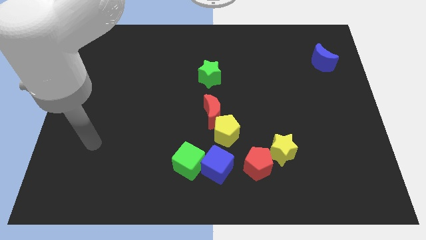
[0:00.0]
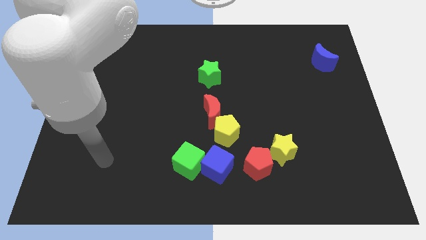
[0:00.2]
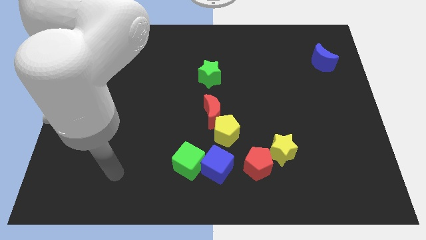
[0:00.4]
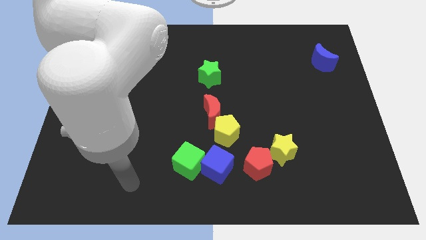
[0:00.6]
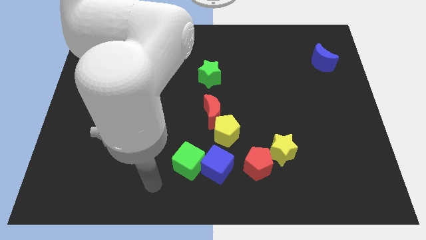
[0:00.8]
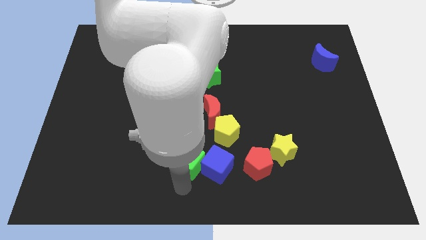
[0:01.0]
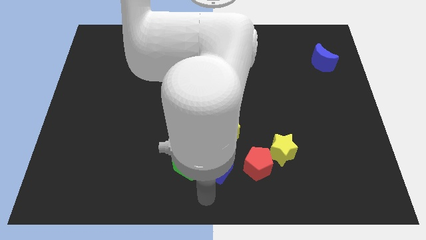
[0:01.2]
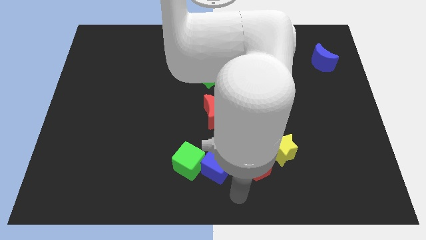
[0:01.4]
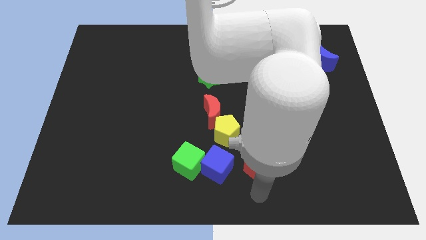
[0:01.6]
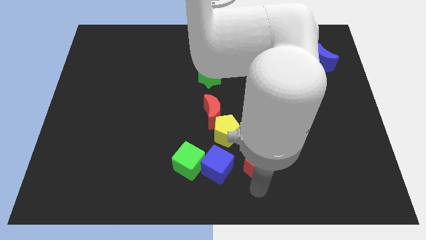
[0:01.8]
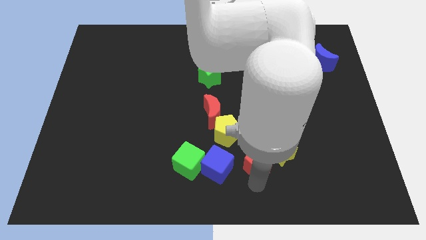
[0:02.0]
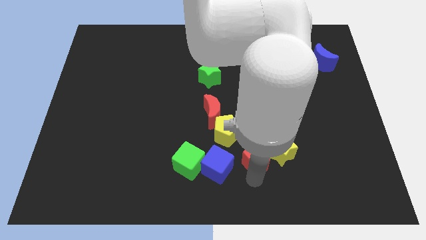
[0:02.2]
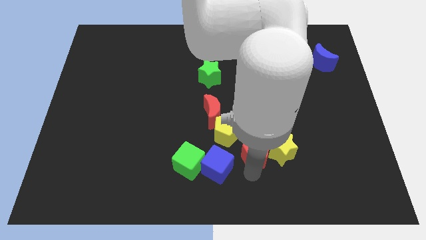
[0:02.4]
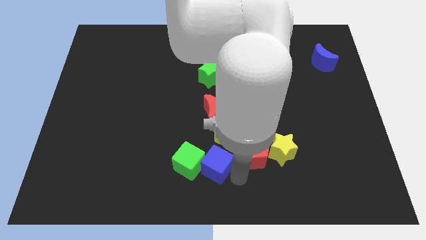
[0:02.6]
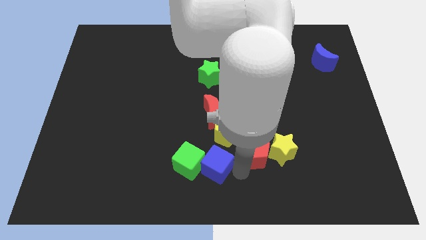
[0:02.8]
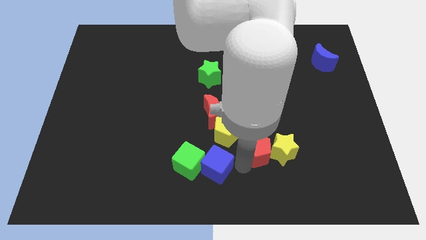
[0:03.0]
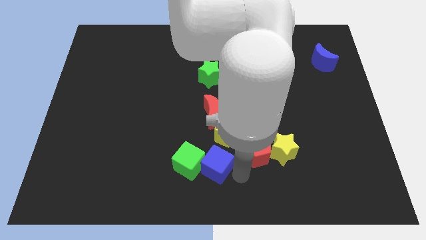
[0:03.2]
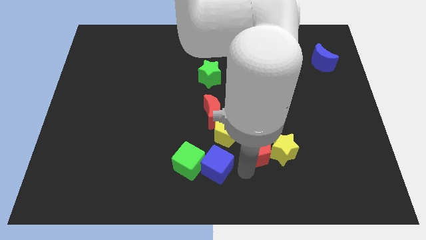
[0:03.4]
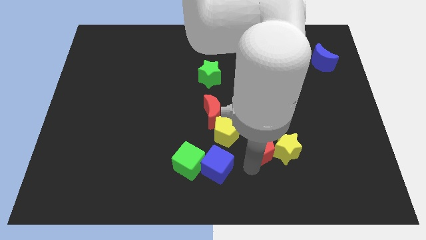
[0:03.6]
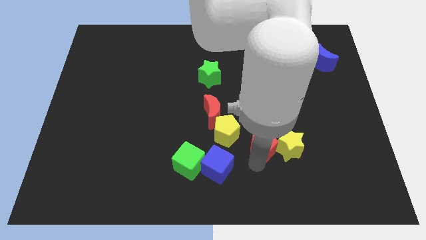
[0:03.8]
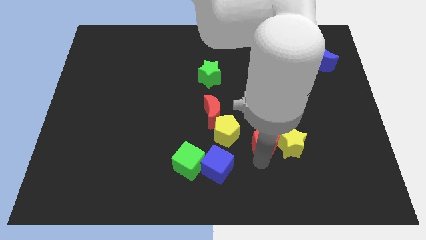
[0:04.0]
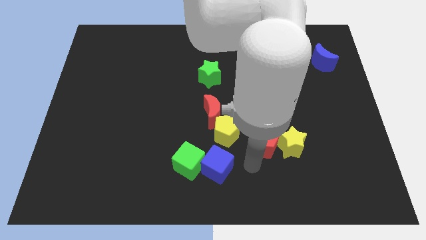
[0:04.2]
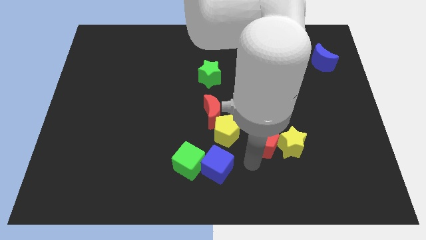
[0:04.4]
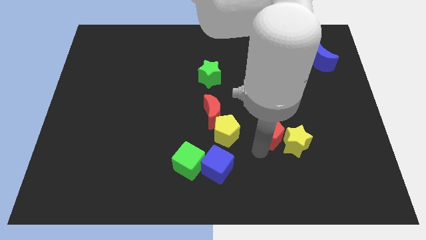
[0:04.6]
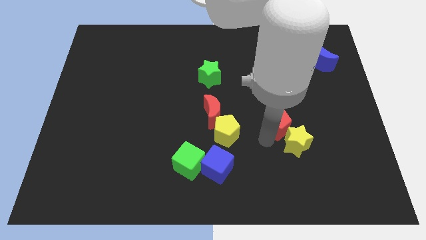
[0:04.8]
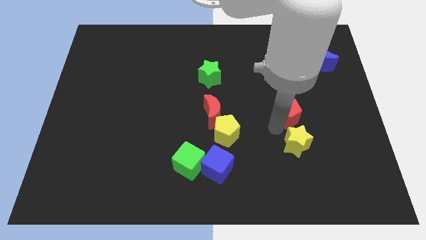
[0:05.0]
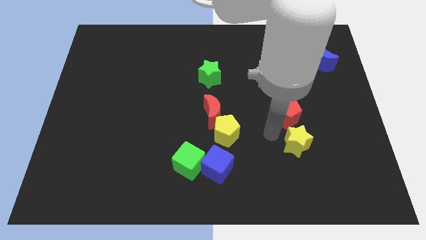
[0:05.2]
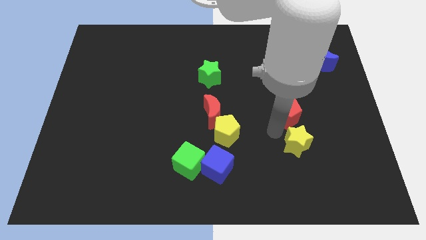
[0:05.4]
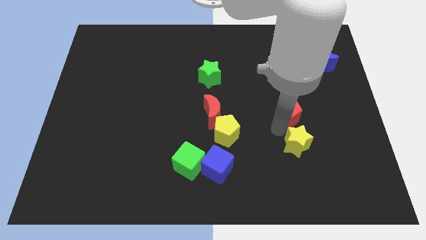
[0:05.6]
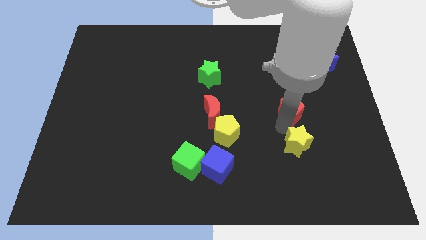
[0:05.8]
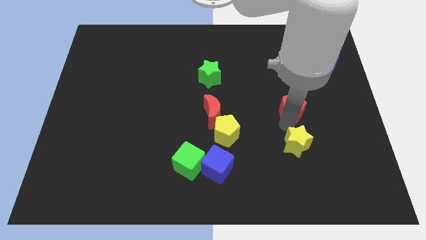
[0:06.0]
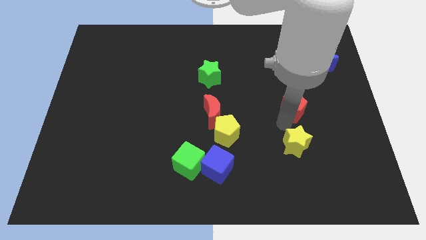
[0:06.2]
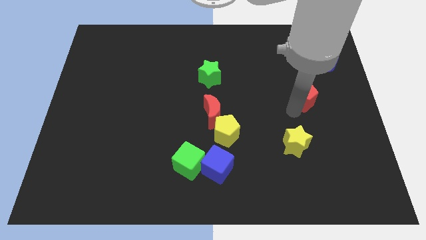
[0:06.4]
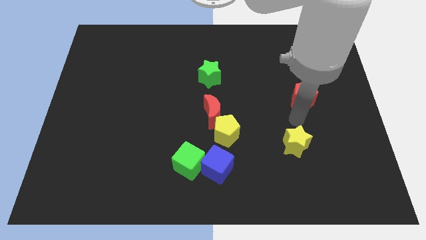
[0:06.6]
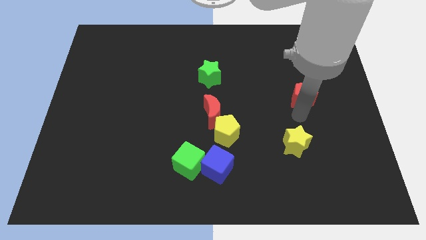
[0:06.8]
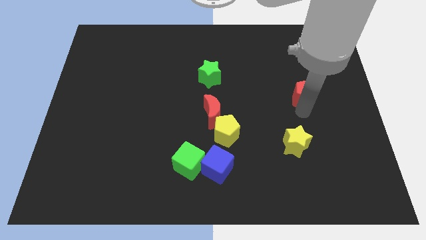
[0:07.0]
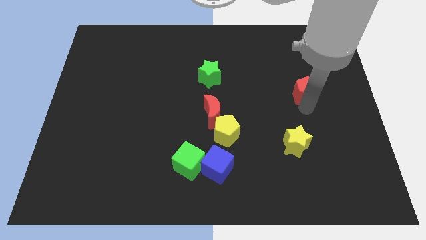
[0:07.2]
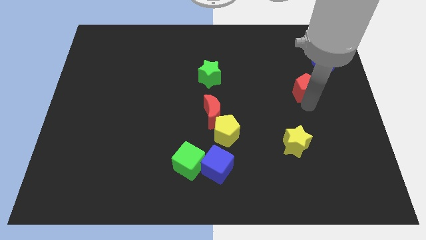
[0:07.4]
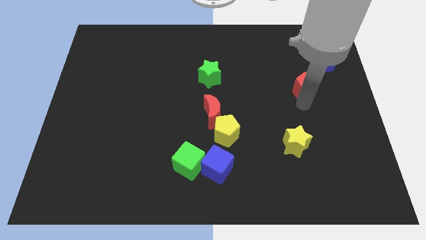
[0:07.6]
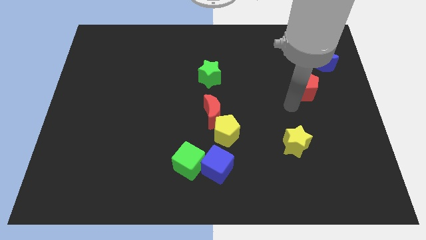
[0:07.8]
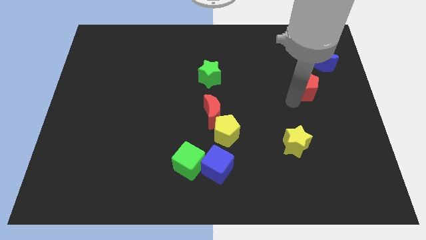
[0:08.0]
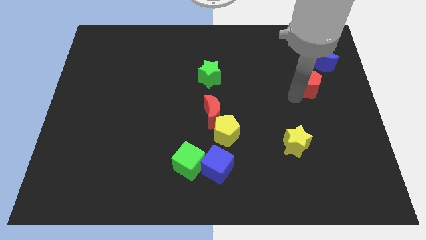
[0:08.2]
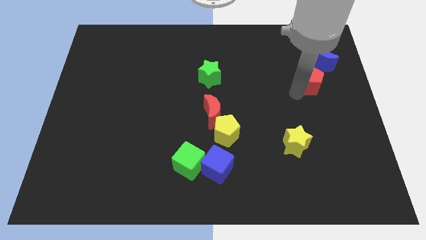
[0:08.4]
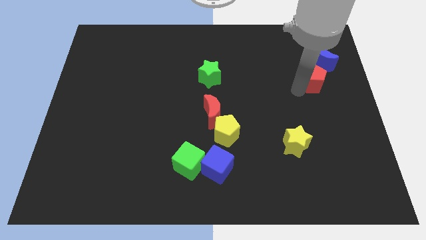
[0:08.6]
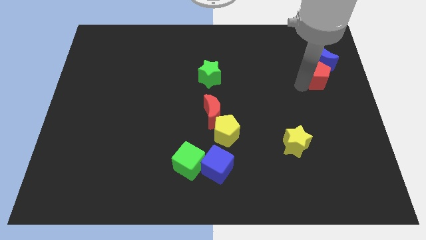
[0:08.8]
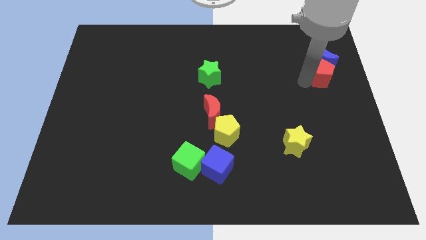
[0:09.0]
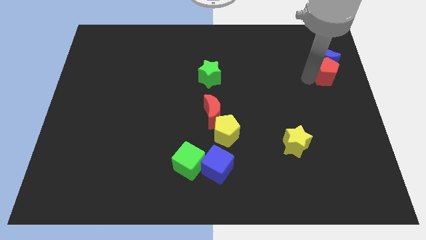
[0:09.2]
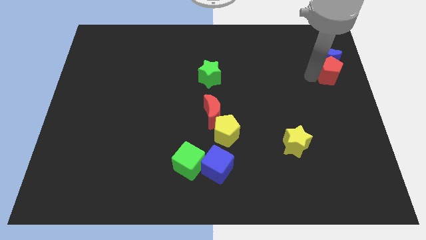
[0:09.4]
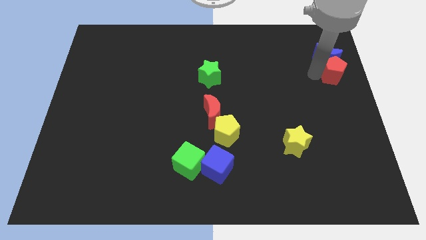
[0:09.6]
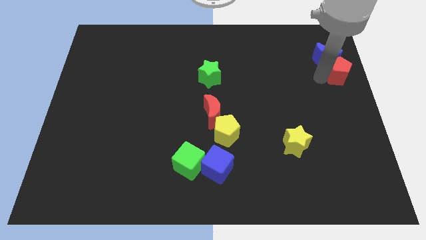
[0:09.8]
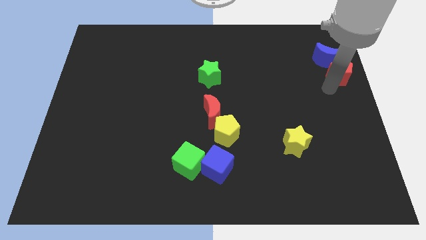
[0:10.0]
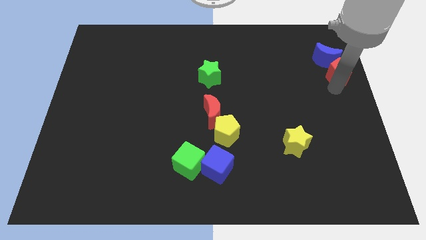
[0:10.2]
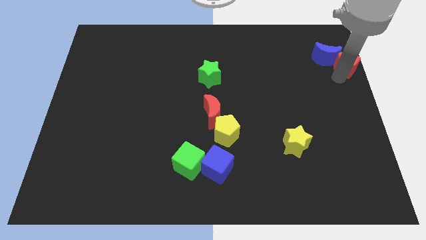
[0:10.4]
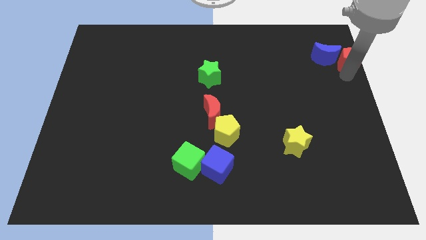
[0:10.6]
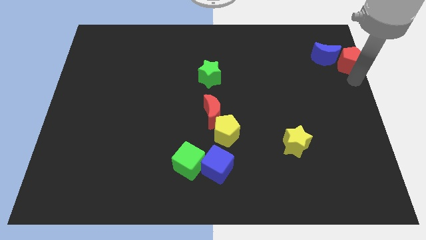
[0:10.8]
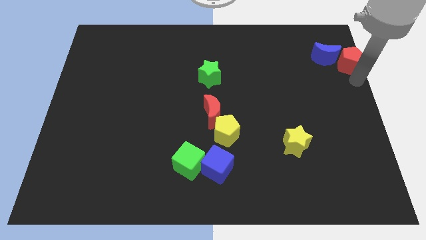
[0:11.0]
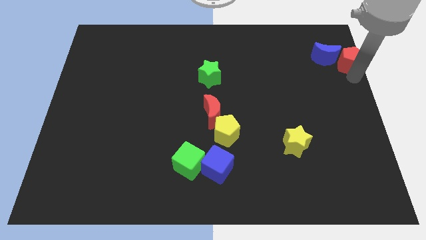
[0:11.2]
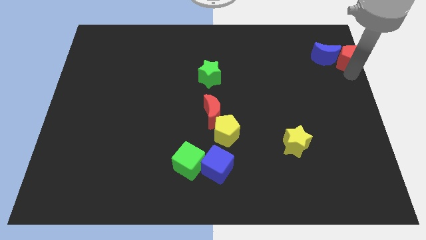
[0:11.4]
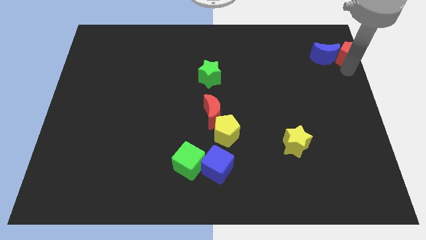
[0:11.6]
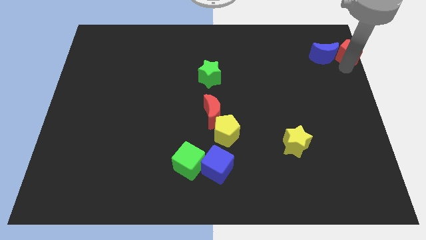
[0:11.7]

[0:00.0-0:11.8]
put the red pentagon to the top right

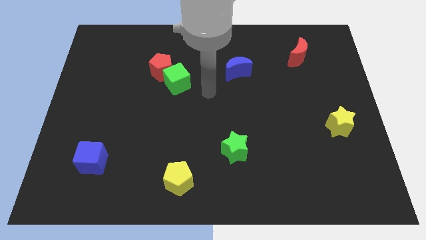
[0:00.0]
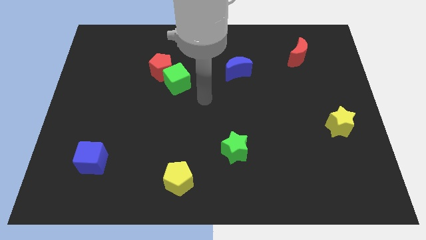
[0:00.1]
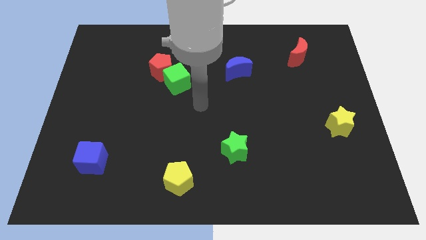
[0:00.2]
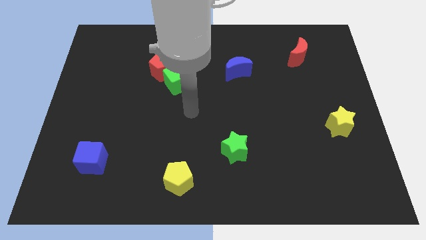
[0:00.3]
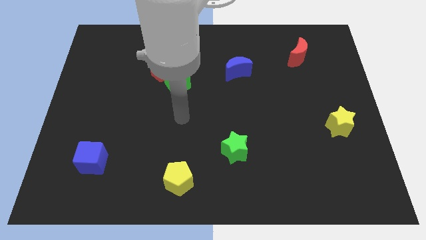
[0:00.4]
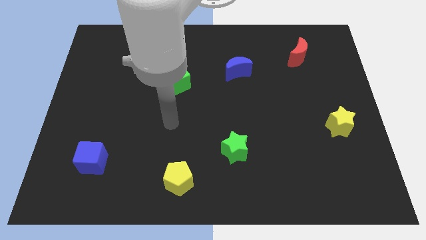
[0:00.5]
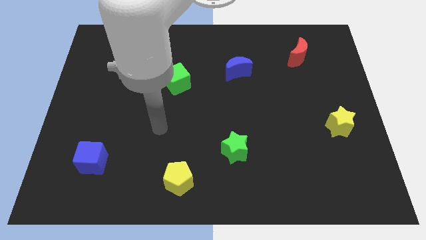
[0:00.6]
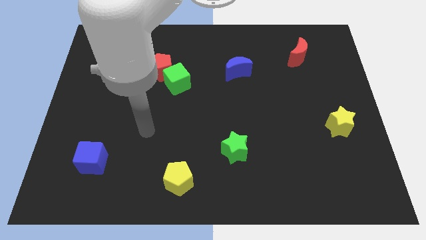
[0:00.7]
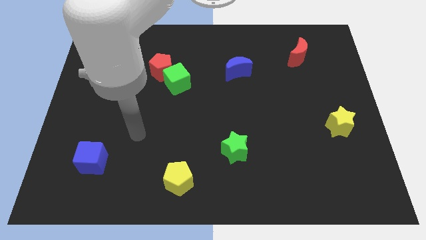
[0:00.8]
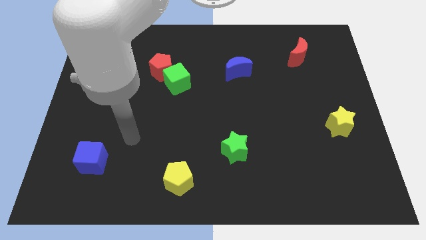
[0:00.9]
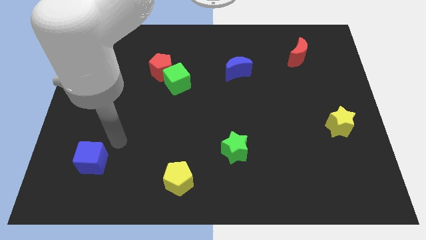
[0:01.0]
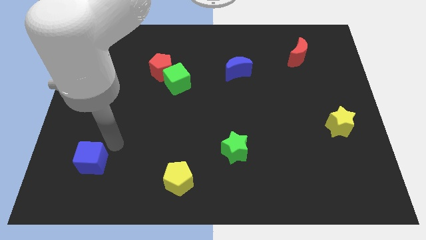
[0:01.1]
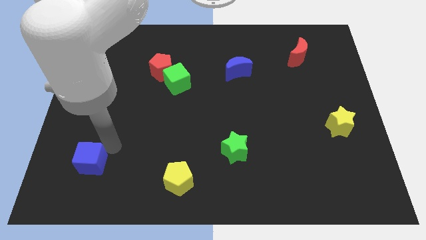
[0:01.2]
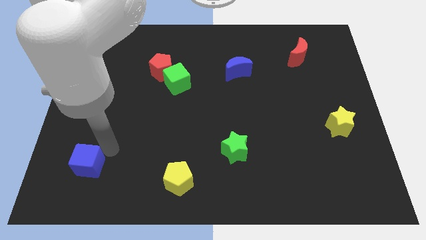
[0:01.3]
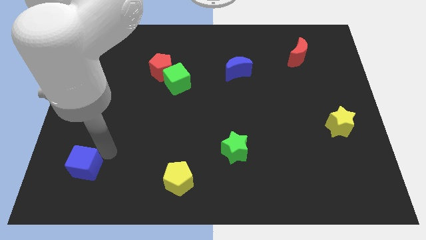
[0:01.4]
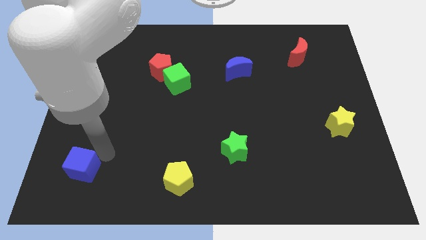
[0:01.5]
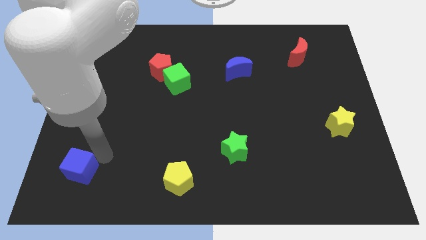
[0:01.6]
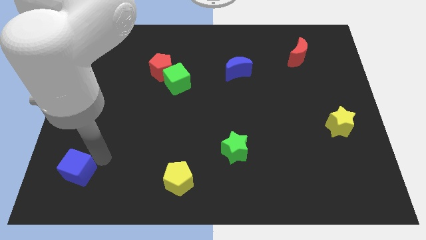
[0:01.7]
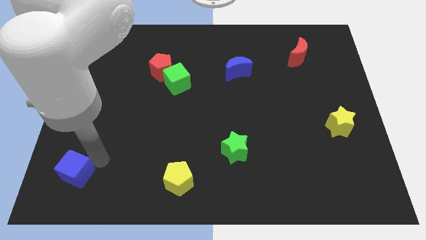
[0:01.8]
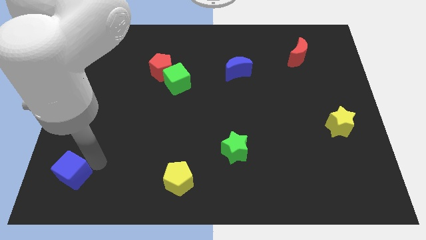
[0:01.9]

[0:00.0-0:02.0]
move the blue cube to the lower left corner

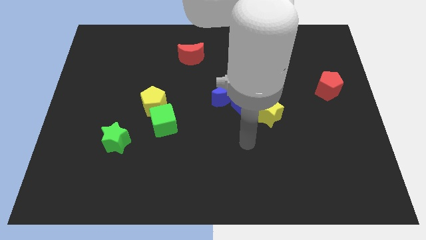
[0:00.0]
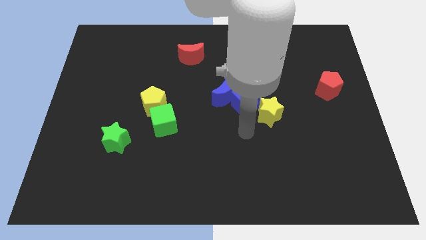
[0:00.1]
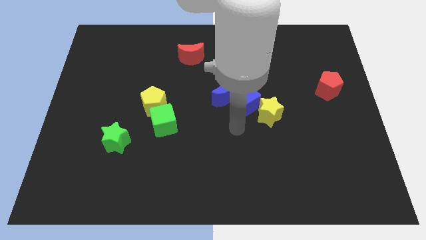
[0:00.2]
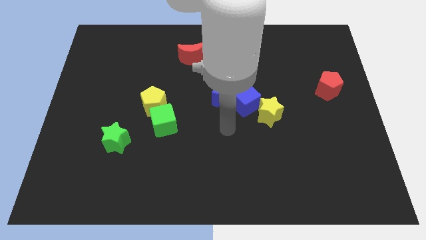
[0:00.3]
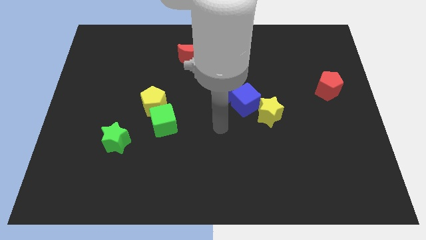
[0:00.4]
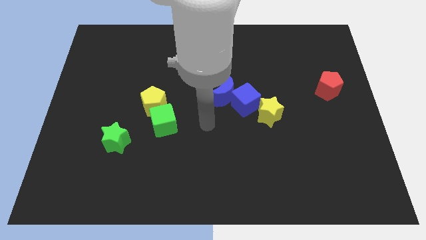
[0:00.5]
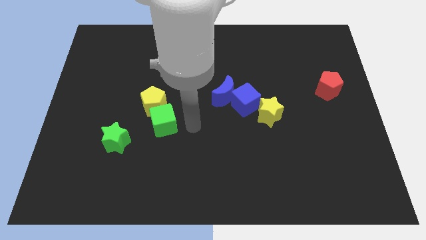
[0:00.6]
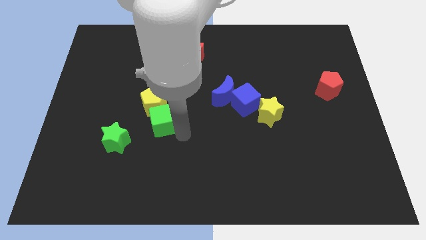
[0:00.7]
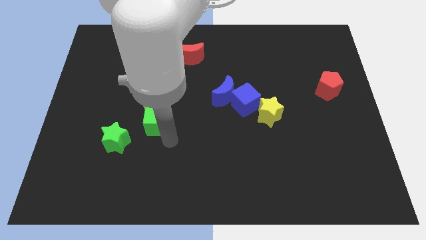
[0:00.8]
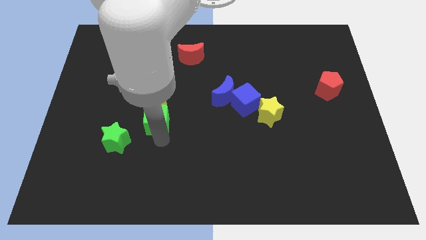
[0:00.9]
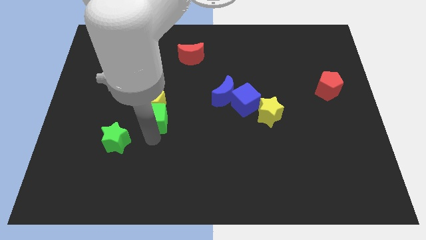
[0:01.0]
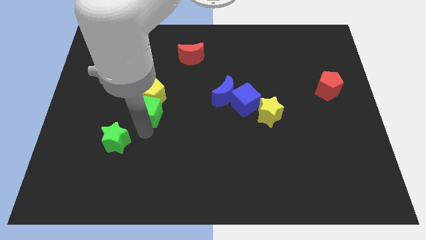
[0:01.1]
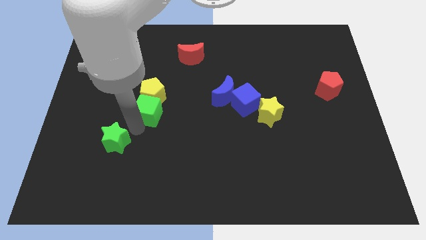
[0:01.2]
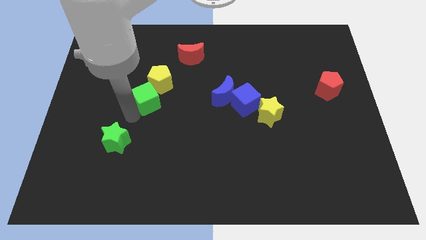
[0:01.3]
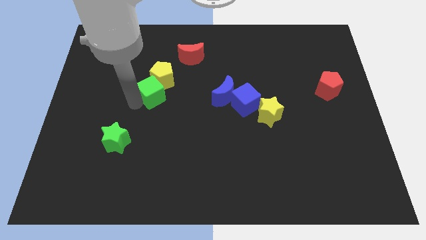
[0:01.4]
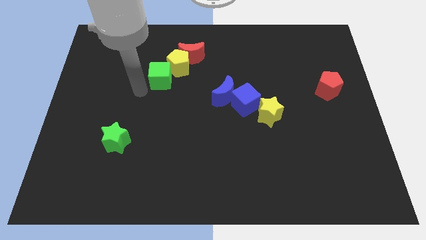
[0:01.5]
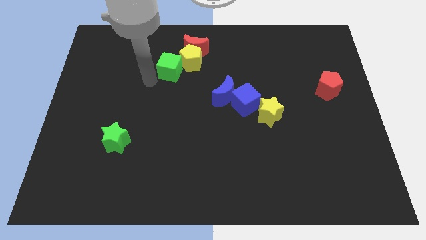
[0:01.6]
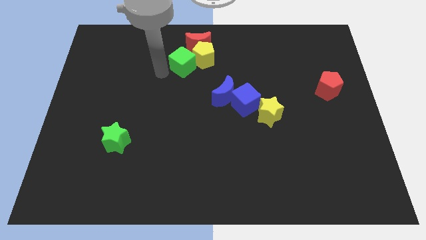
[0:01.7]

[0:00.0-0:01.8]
put the yellow pentagon to the top
